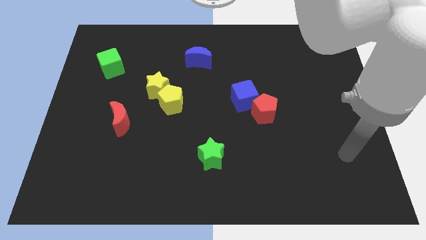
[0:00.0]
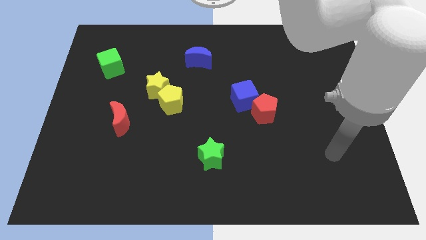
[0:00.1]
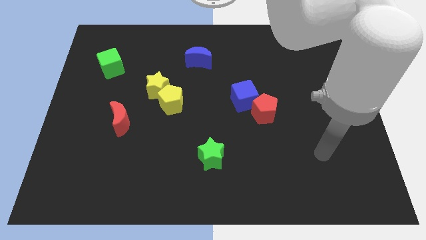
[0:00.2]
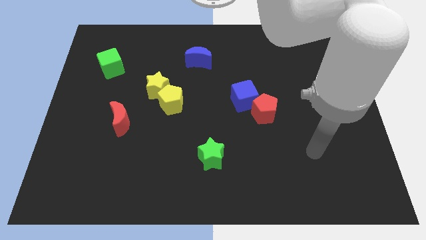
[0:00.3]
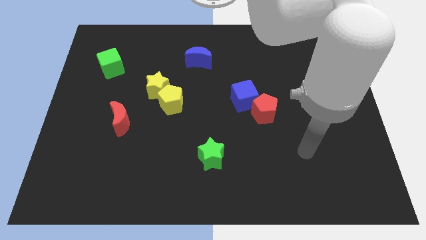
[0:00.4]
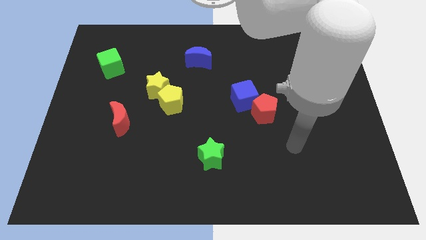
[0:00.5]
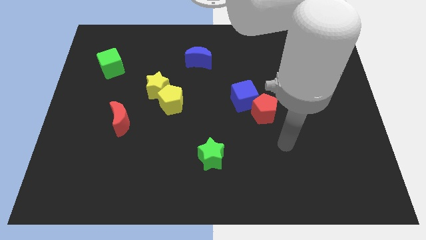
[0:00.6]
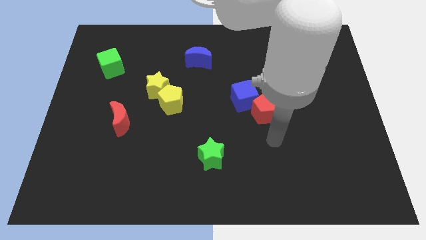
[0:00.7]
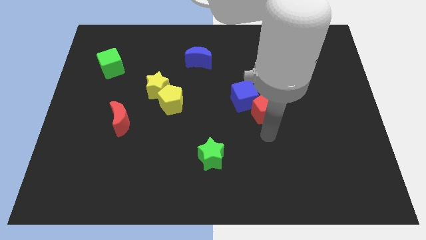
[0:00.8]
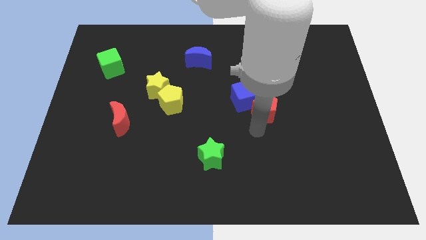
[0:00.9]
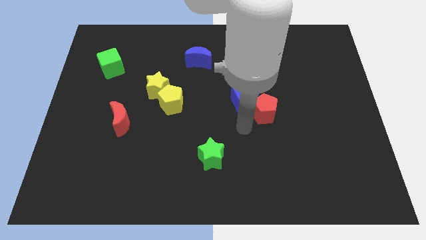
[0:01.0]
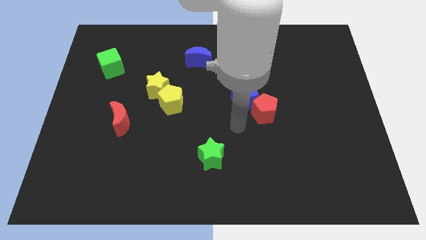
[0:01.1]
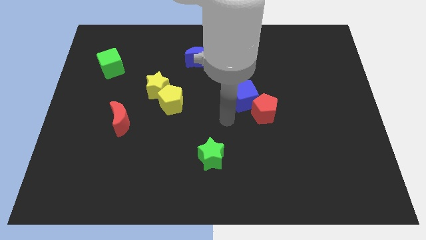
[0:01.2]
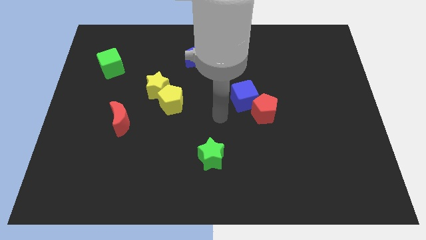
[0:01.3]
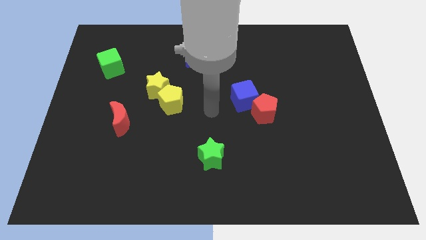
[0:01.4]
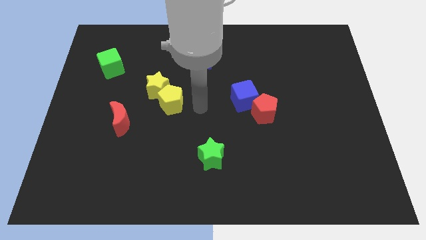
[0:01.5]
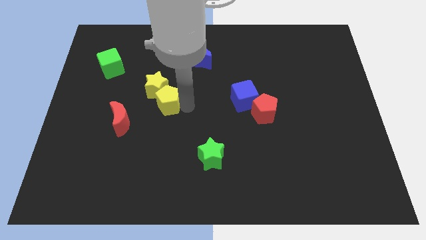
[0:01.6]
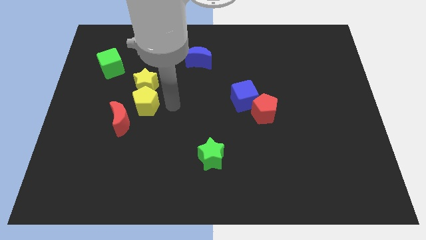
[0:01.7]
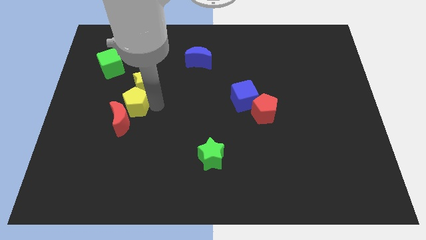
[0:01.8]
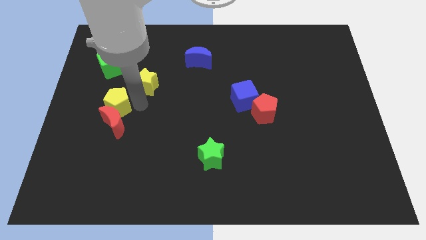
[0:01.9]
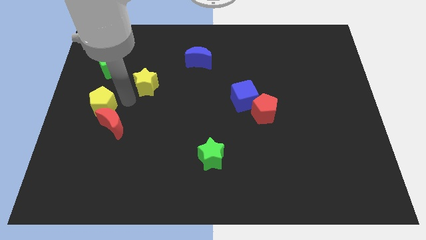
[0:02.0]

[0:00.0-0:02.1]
pull the yellow star apart from the yellow pentagon

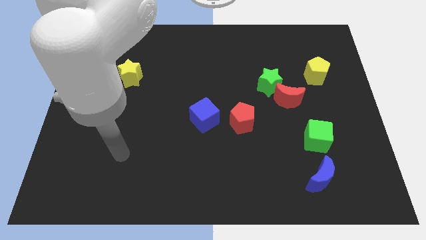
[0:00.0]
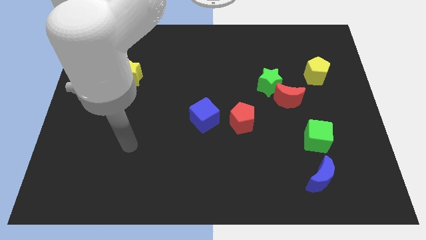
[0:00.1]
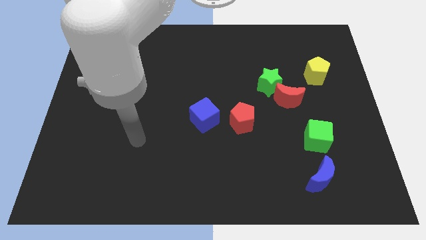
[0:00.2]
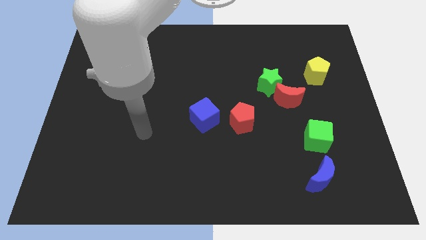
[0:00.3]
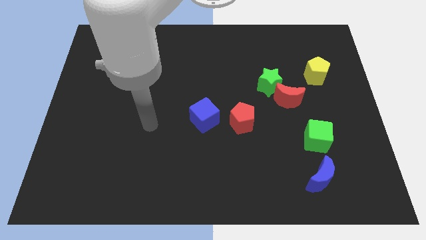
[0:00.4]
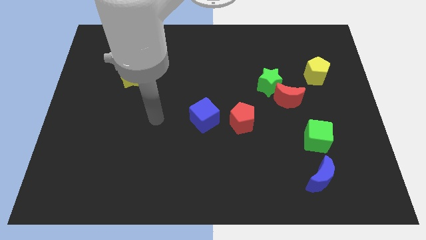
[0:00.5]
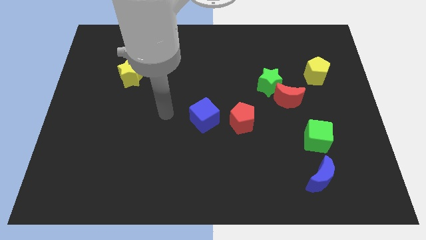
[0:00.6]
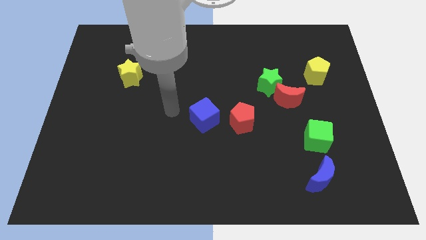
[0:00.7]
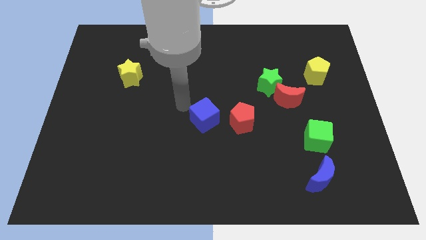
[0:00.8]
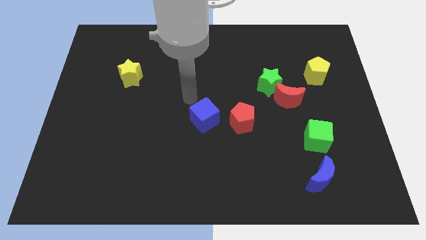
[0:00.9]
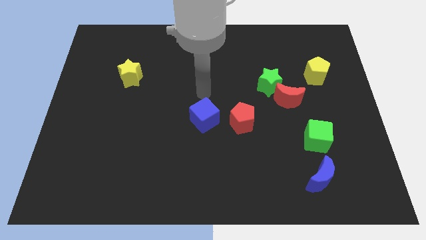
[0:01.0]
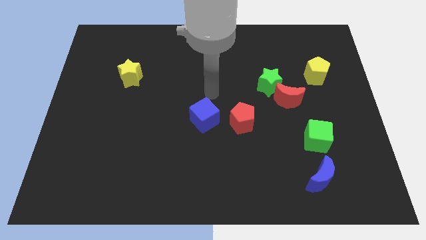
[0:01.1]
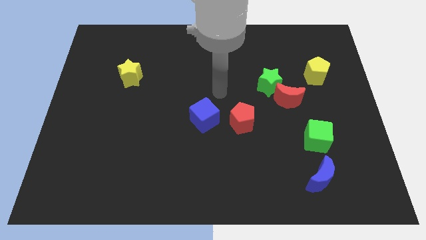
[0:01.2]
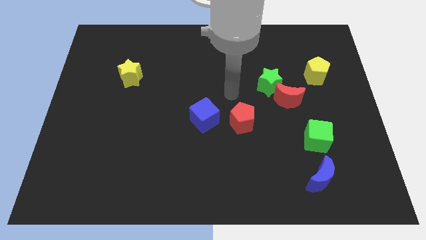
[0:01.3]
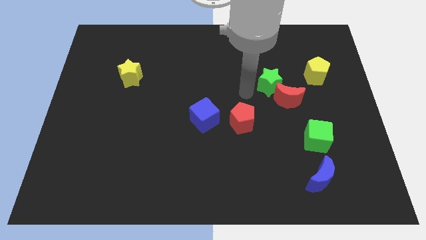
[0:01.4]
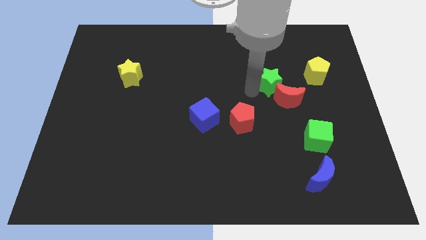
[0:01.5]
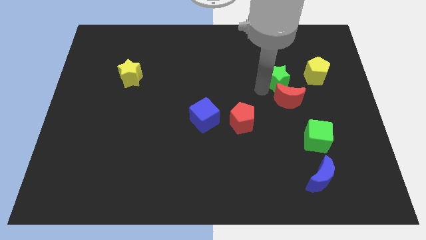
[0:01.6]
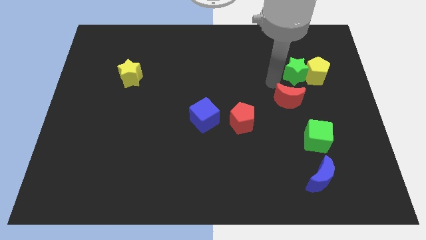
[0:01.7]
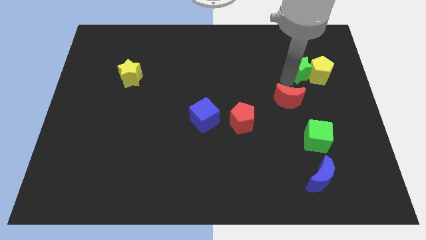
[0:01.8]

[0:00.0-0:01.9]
separate the red moon from the green star

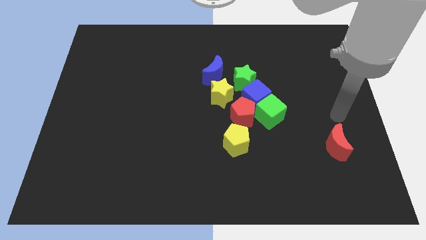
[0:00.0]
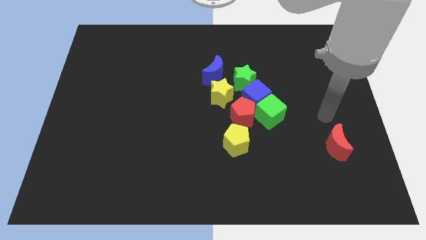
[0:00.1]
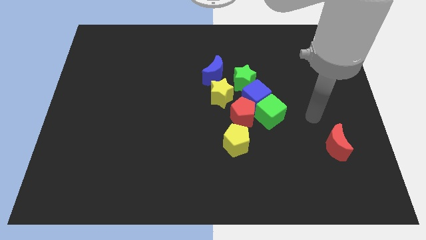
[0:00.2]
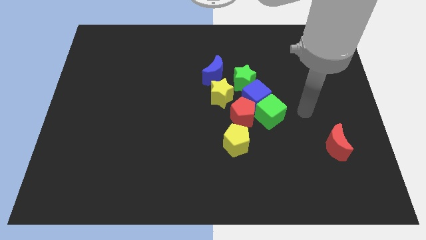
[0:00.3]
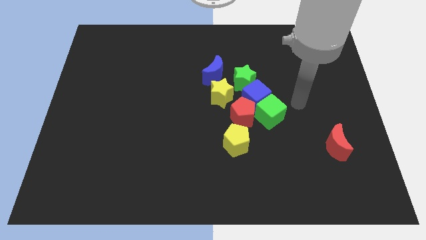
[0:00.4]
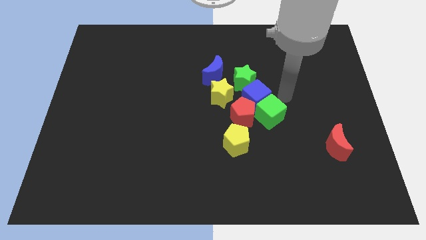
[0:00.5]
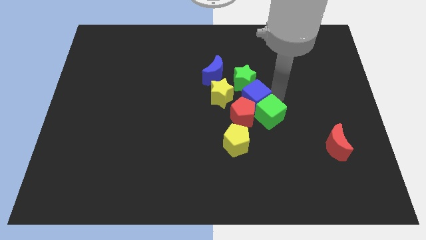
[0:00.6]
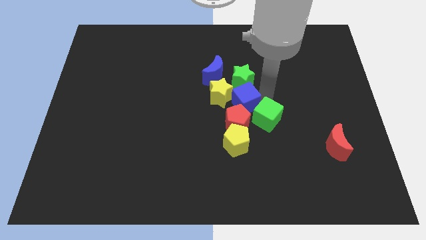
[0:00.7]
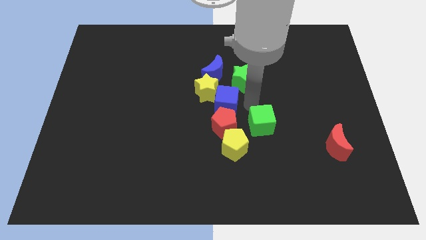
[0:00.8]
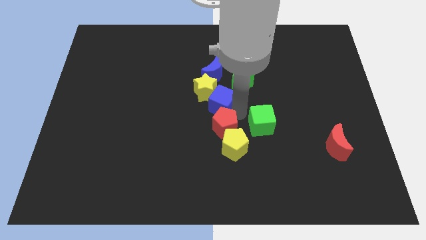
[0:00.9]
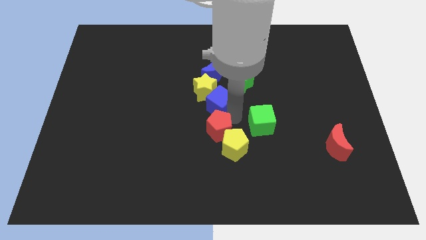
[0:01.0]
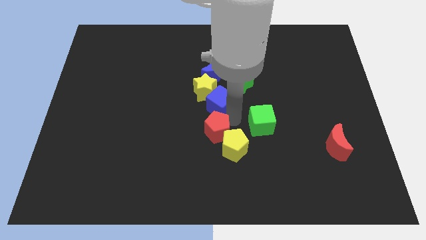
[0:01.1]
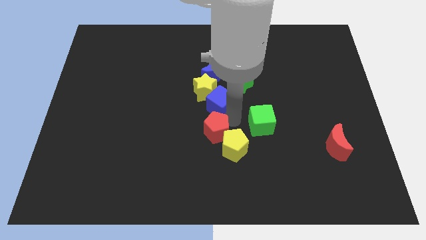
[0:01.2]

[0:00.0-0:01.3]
separate the green cube from the blue cube and red pentagon

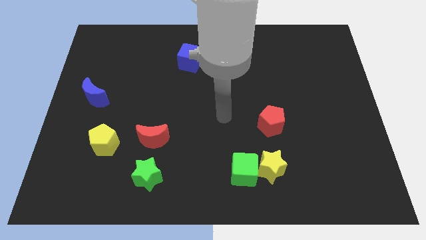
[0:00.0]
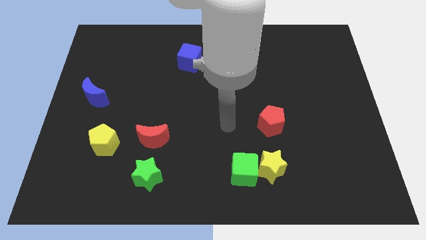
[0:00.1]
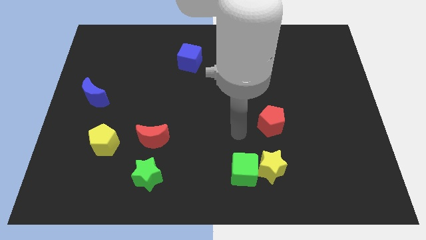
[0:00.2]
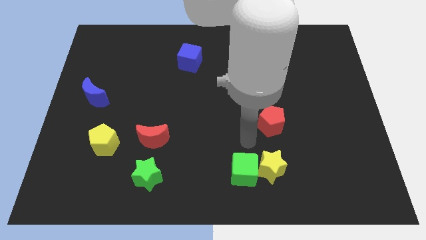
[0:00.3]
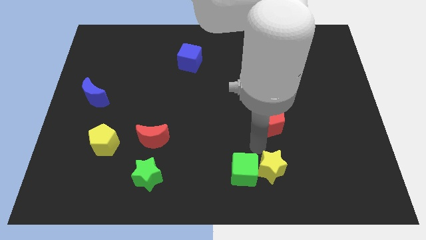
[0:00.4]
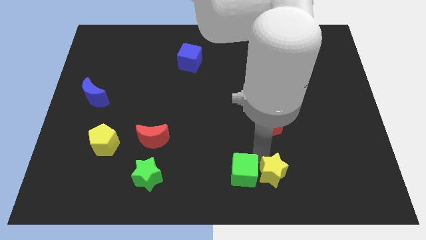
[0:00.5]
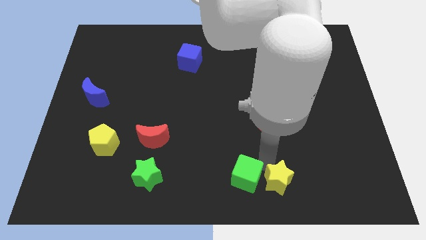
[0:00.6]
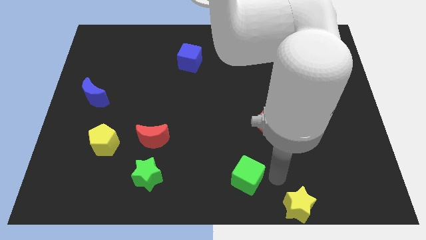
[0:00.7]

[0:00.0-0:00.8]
move the green cube away from the yellow star

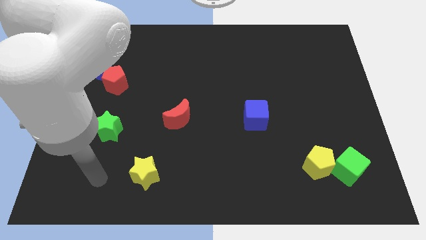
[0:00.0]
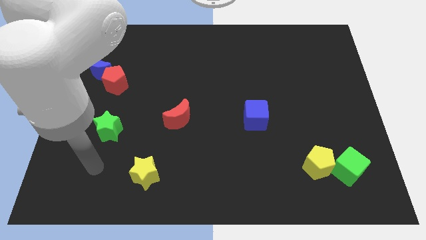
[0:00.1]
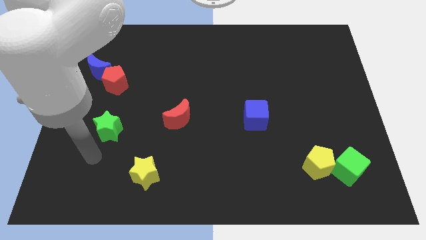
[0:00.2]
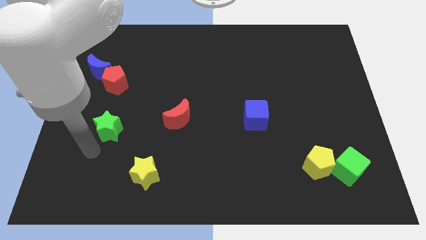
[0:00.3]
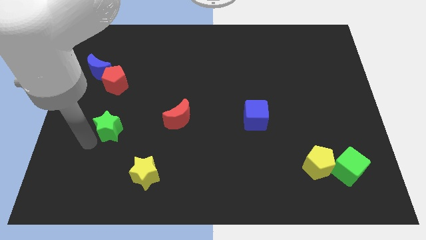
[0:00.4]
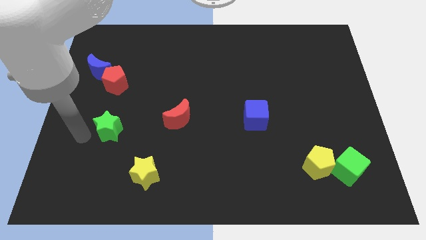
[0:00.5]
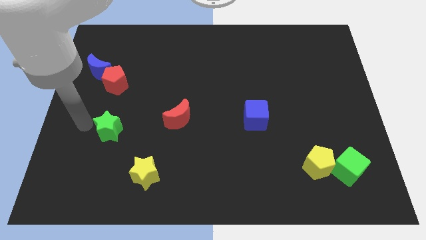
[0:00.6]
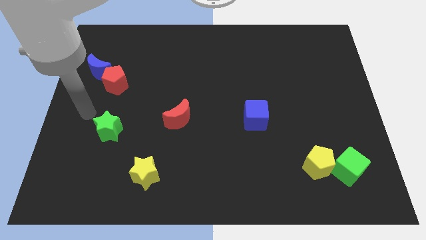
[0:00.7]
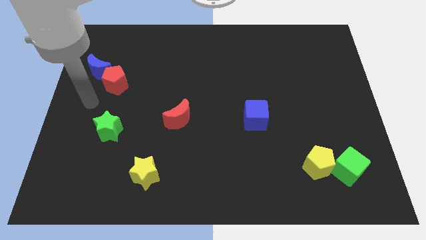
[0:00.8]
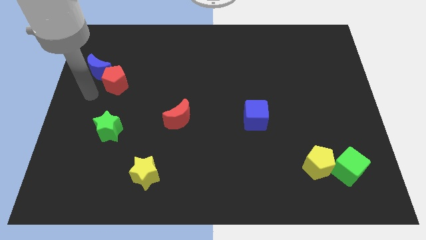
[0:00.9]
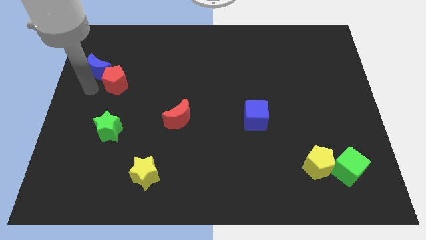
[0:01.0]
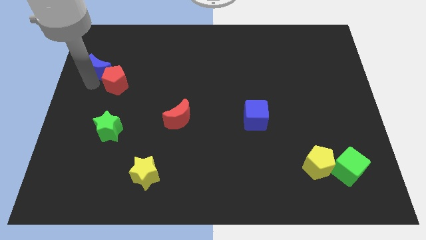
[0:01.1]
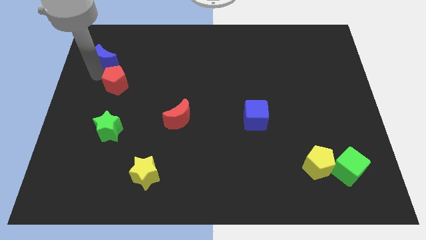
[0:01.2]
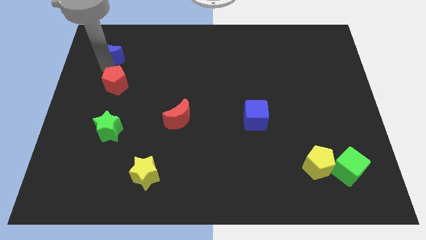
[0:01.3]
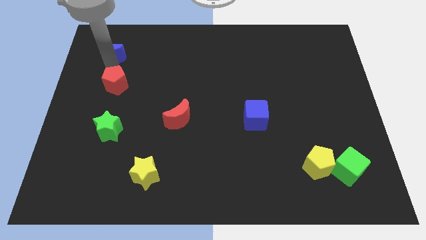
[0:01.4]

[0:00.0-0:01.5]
separate the red pentagon from the blue moon

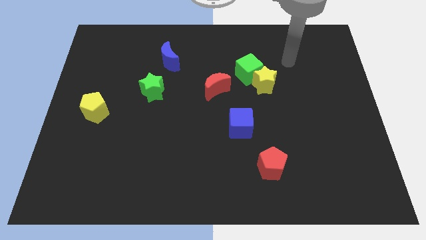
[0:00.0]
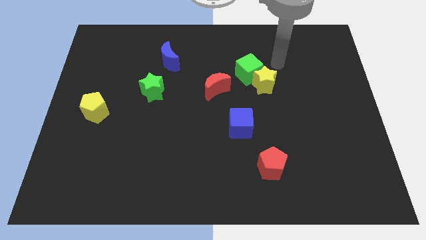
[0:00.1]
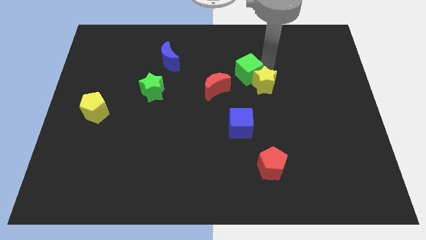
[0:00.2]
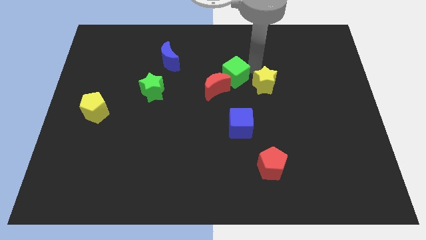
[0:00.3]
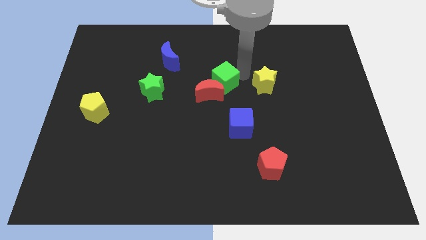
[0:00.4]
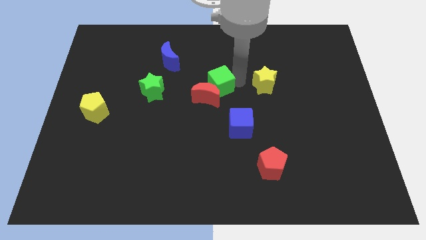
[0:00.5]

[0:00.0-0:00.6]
separate the yellow star from the green cube

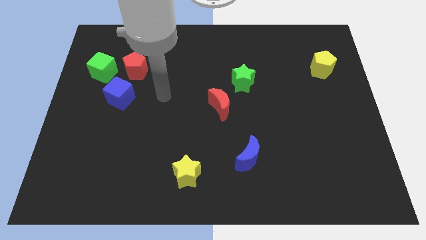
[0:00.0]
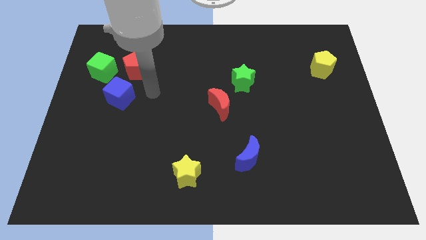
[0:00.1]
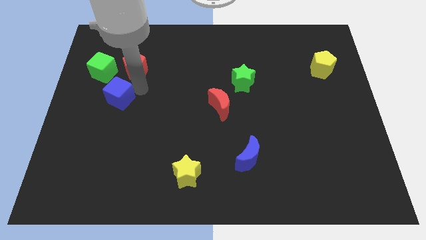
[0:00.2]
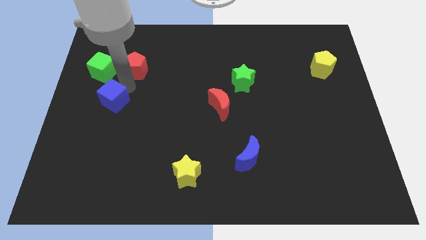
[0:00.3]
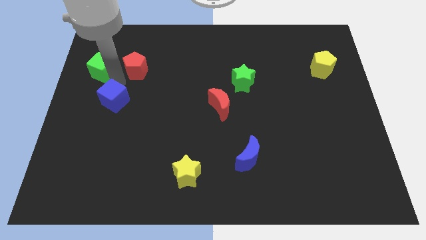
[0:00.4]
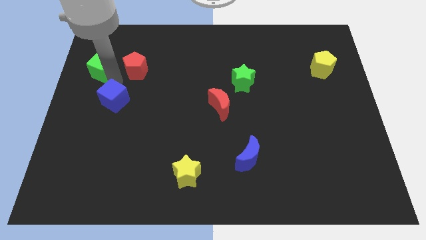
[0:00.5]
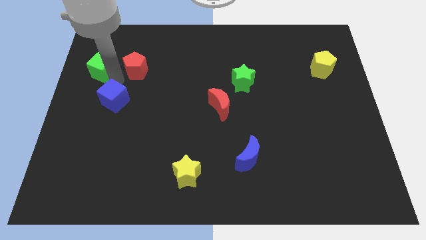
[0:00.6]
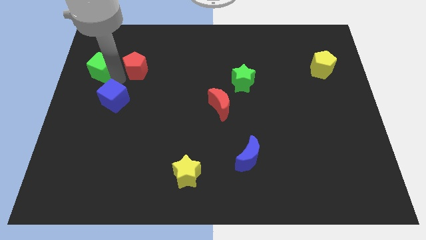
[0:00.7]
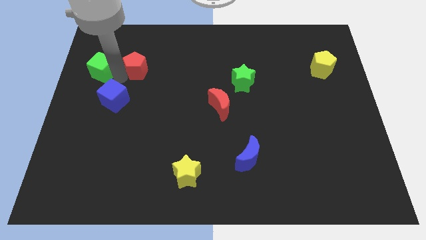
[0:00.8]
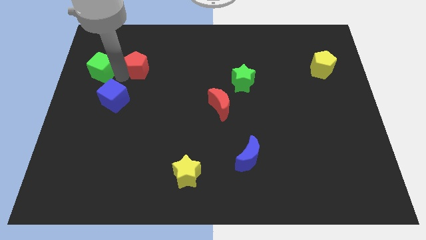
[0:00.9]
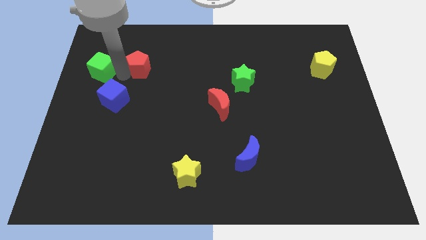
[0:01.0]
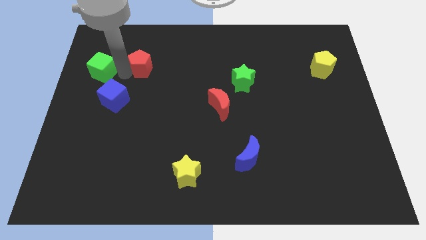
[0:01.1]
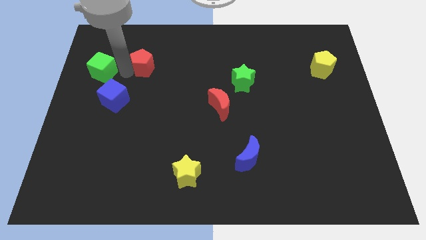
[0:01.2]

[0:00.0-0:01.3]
separate the red pentagon from the green cube and blue cube
